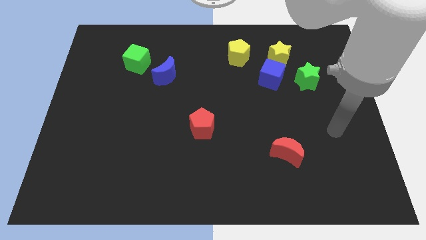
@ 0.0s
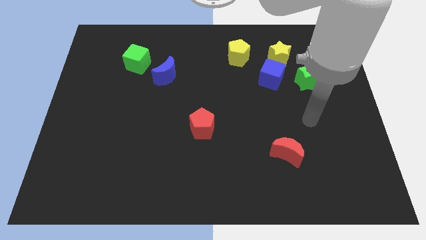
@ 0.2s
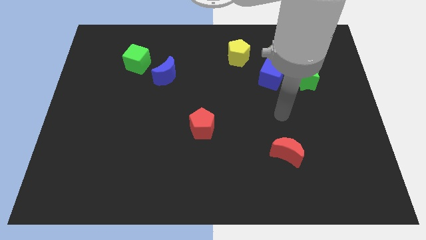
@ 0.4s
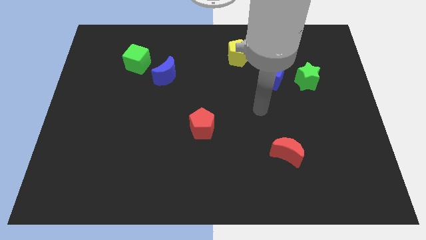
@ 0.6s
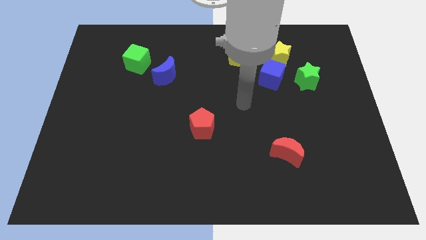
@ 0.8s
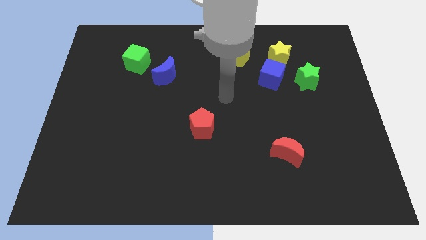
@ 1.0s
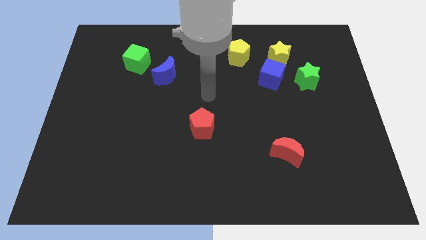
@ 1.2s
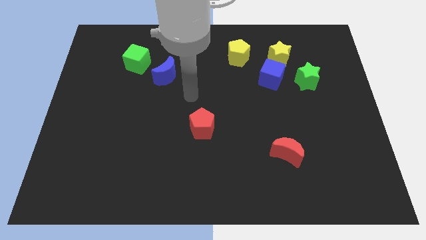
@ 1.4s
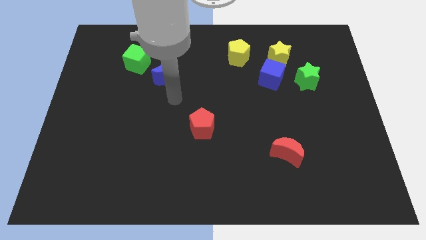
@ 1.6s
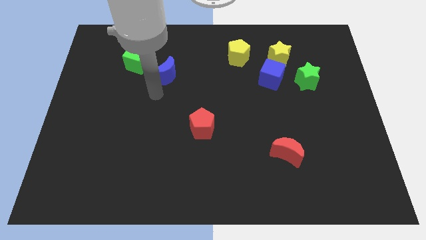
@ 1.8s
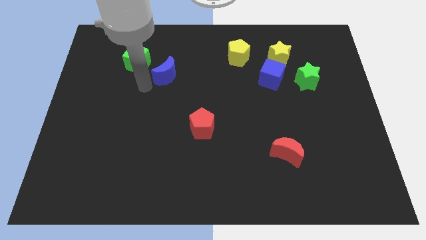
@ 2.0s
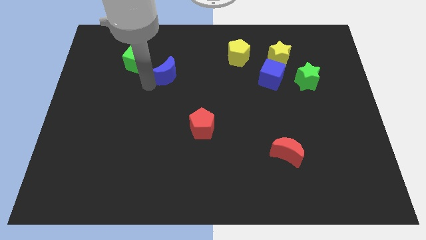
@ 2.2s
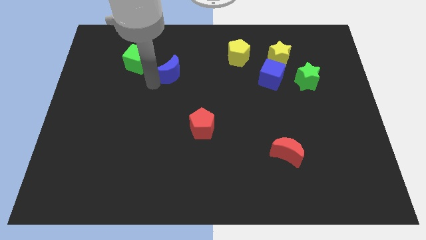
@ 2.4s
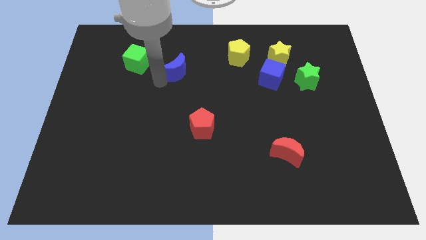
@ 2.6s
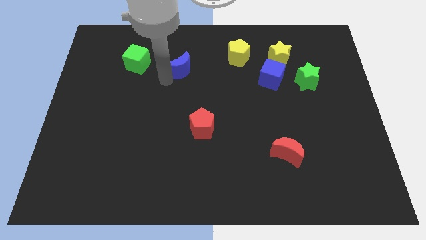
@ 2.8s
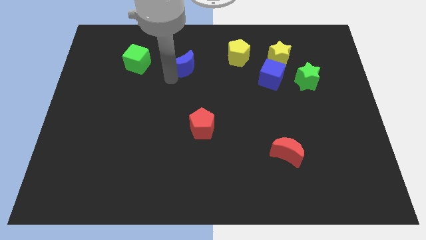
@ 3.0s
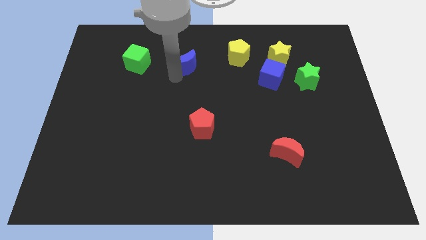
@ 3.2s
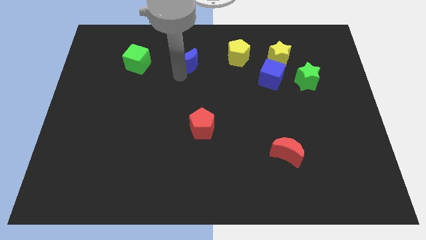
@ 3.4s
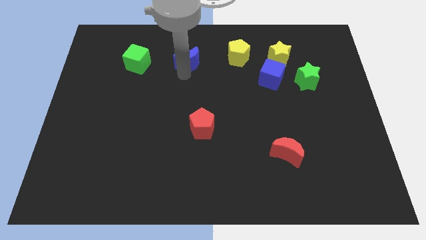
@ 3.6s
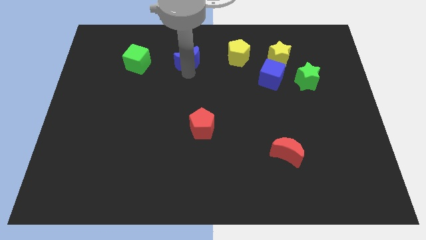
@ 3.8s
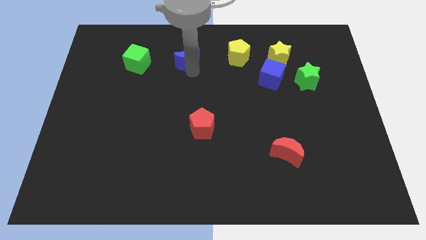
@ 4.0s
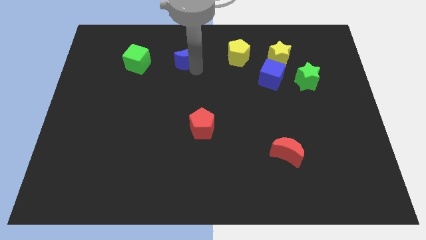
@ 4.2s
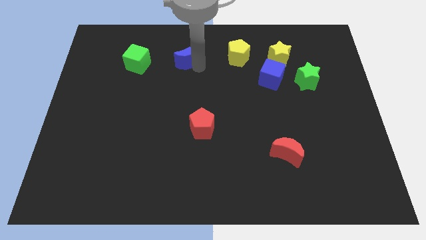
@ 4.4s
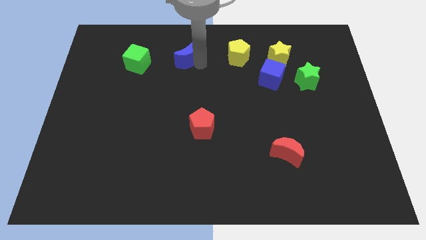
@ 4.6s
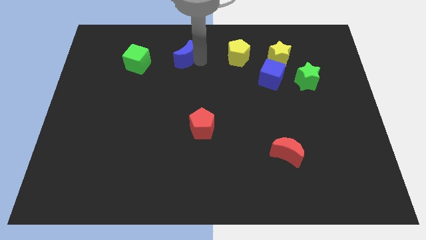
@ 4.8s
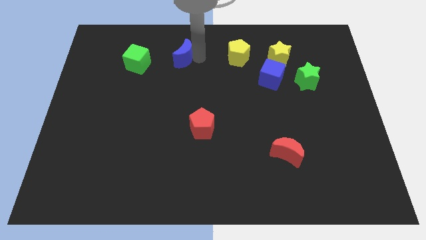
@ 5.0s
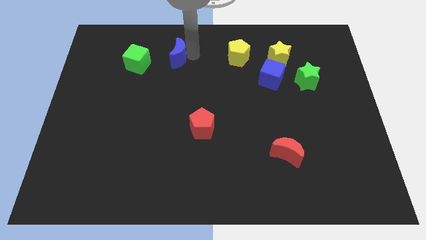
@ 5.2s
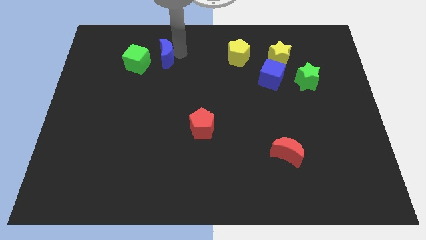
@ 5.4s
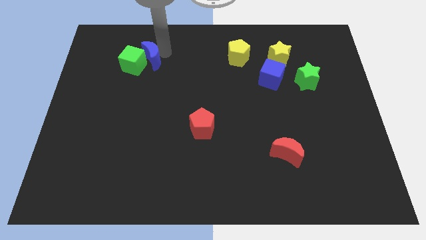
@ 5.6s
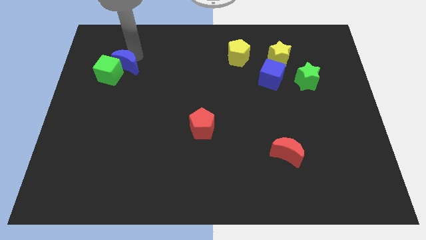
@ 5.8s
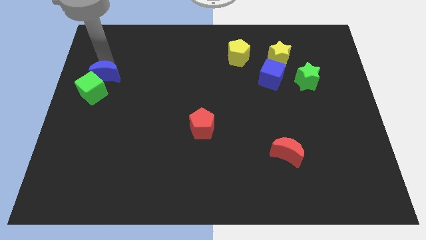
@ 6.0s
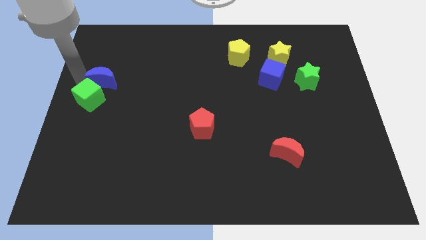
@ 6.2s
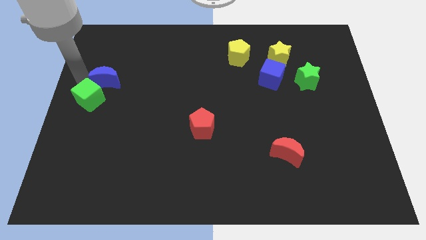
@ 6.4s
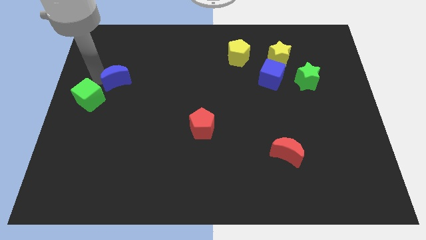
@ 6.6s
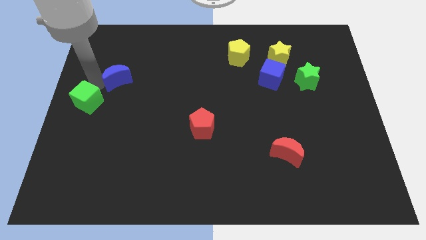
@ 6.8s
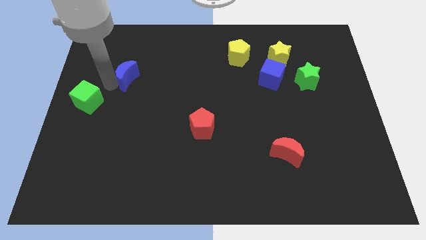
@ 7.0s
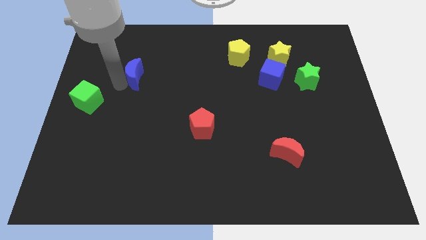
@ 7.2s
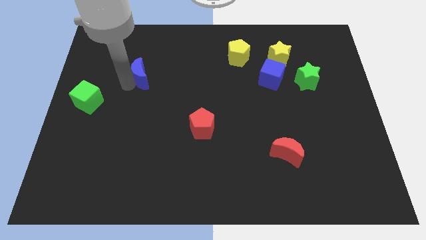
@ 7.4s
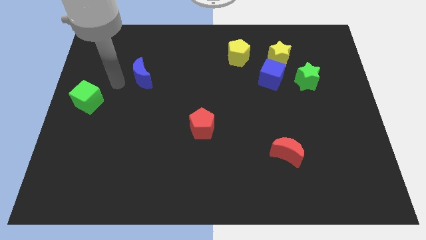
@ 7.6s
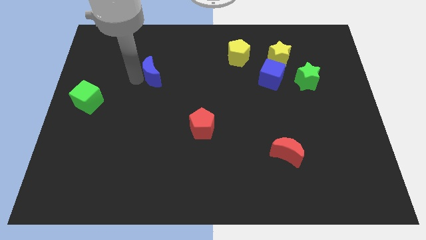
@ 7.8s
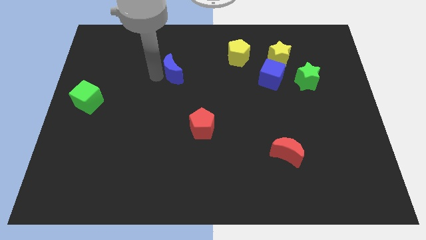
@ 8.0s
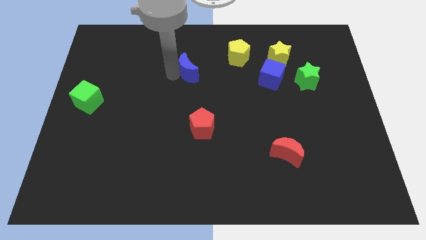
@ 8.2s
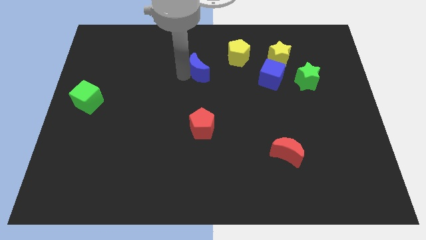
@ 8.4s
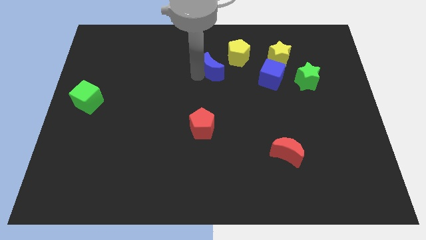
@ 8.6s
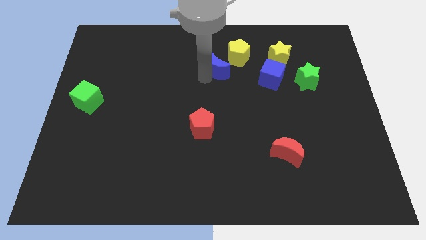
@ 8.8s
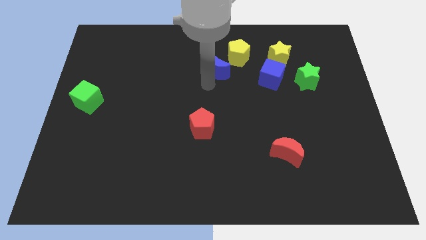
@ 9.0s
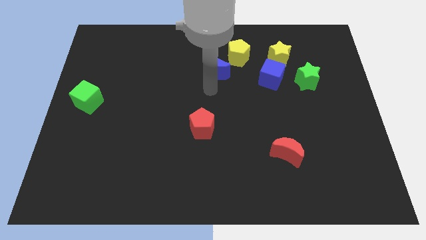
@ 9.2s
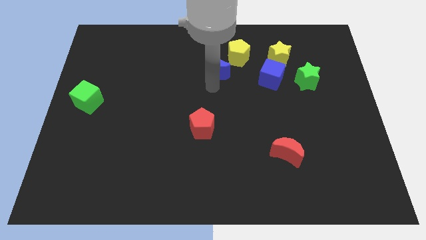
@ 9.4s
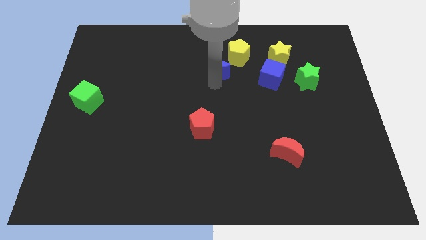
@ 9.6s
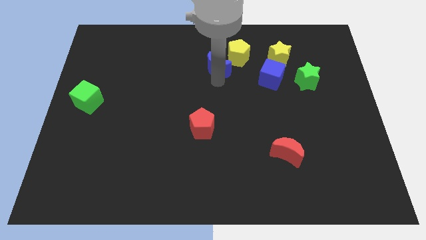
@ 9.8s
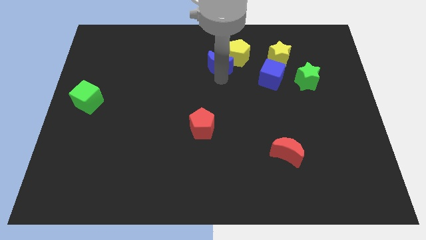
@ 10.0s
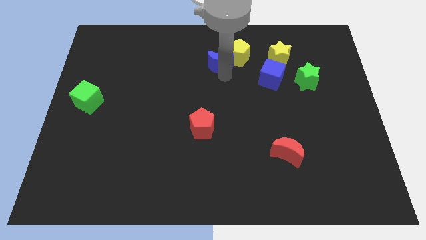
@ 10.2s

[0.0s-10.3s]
put the blue moon left of the yellow star

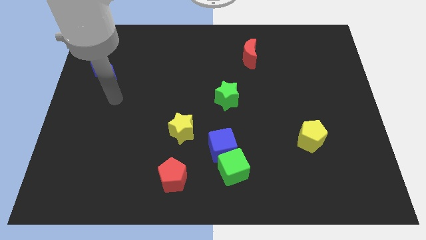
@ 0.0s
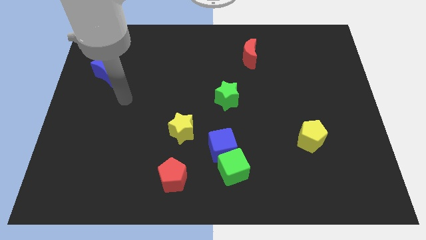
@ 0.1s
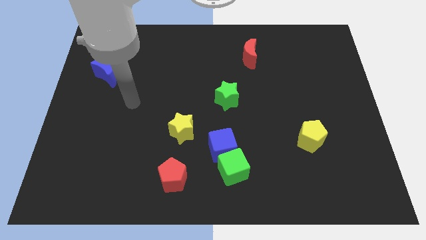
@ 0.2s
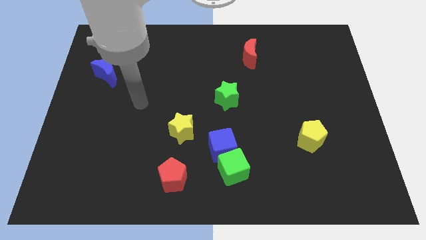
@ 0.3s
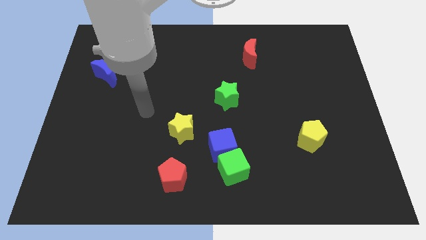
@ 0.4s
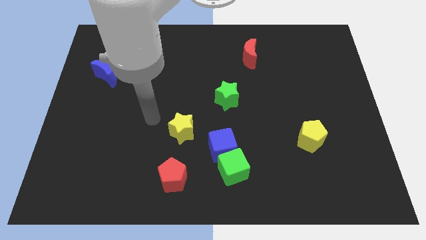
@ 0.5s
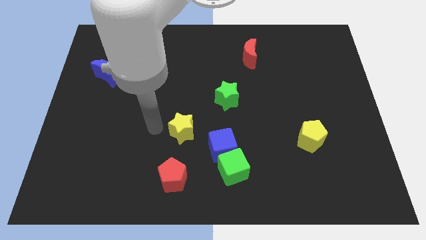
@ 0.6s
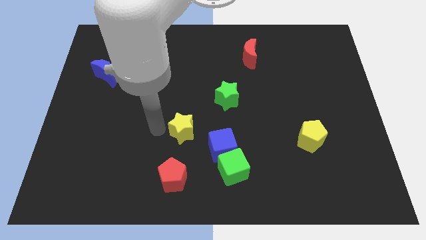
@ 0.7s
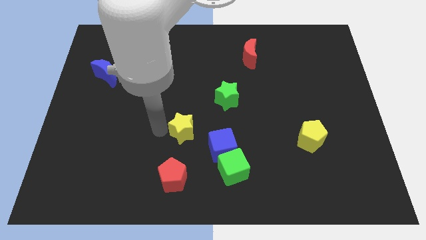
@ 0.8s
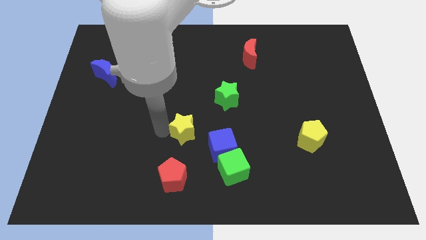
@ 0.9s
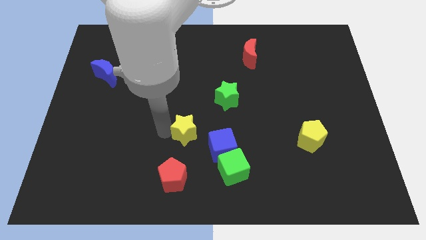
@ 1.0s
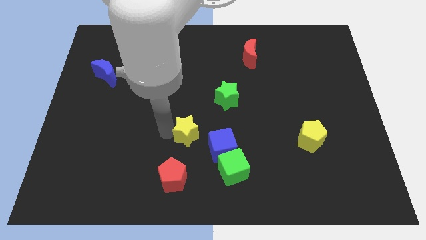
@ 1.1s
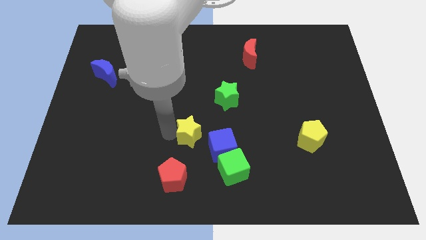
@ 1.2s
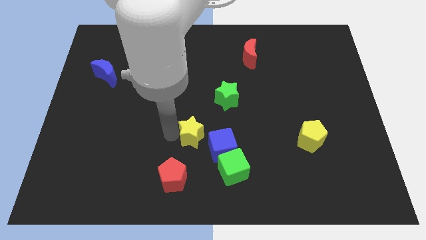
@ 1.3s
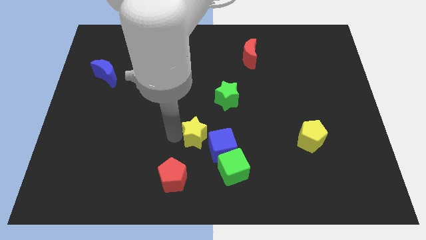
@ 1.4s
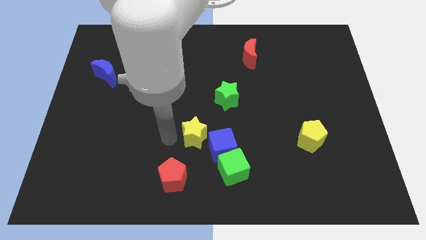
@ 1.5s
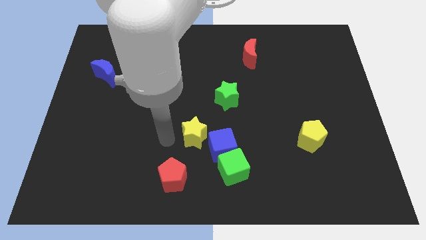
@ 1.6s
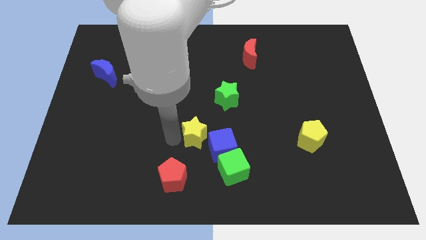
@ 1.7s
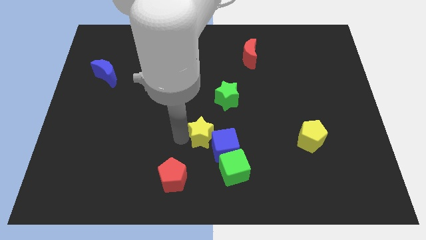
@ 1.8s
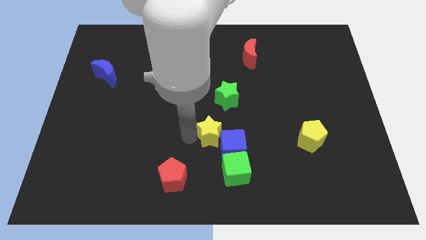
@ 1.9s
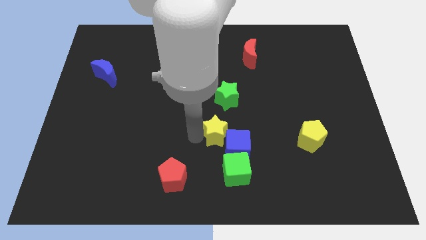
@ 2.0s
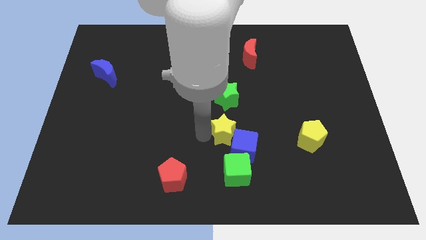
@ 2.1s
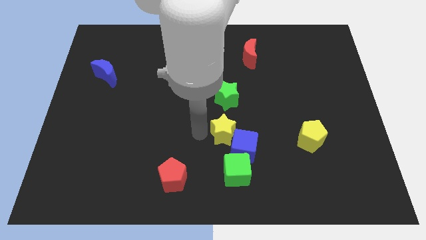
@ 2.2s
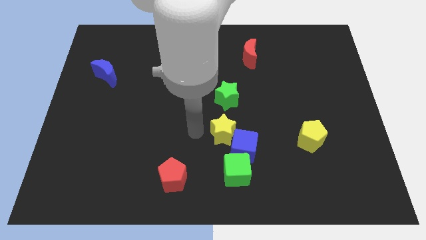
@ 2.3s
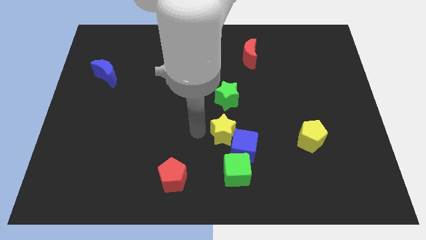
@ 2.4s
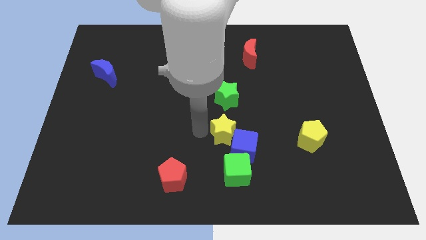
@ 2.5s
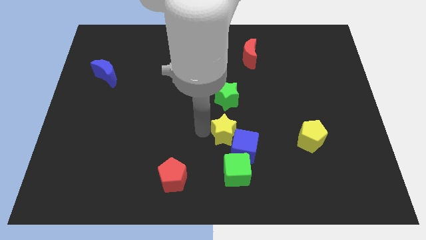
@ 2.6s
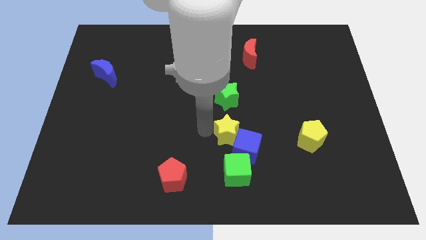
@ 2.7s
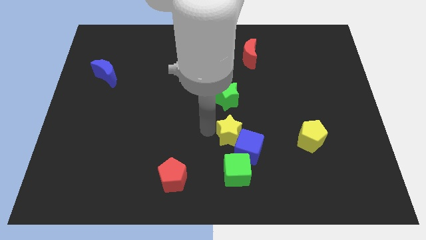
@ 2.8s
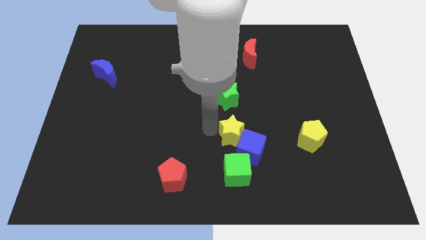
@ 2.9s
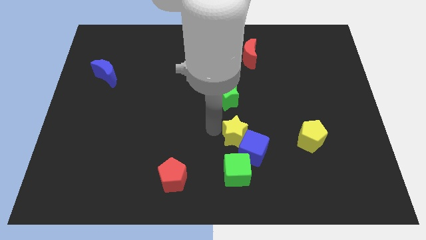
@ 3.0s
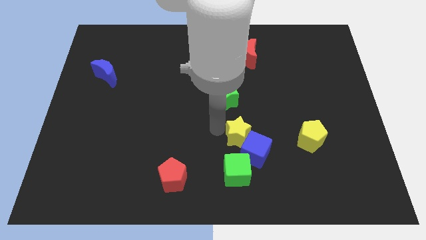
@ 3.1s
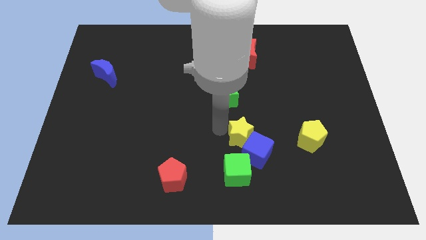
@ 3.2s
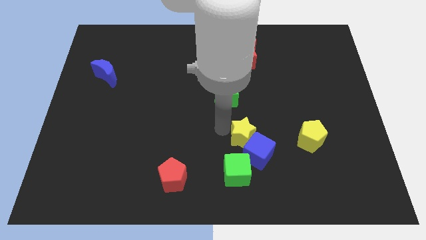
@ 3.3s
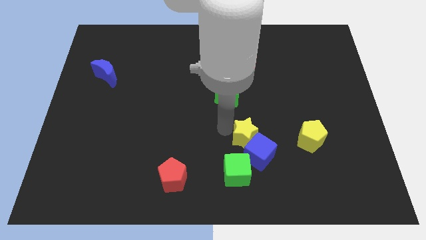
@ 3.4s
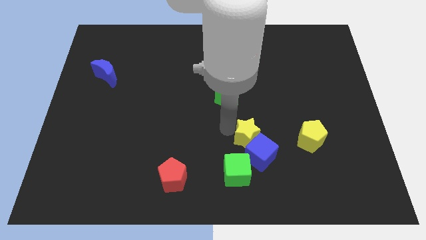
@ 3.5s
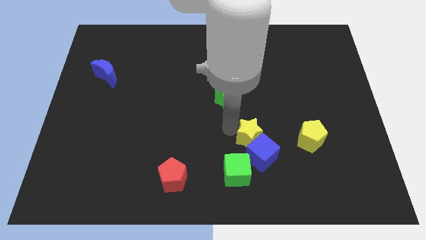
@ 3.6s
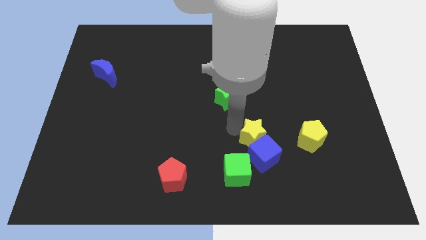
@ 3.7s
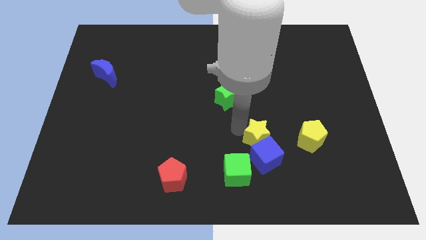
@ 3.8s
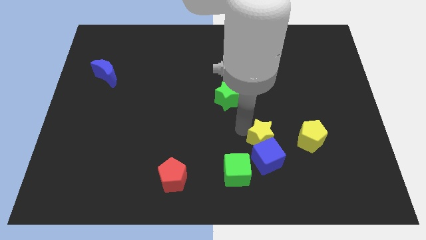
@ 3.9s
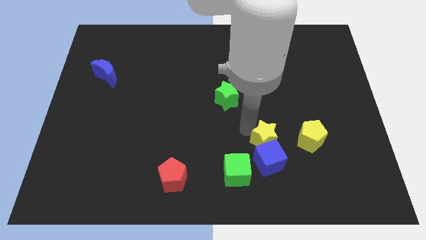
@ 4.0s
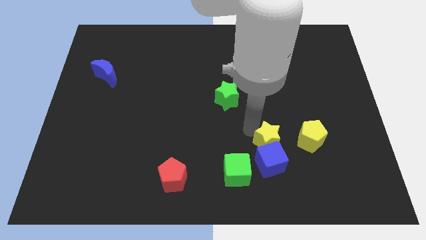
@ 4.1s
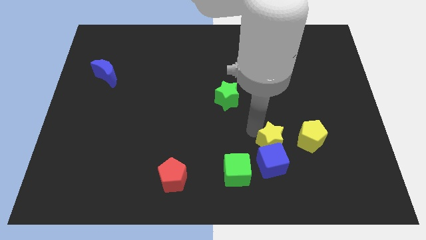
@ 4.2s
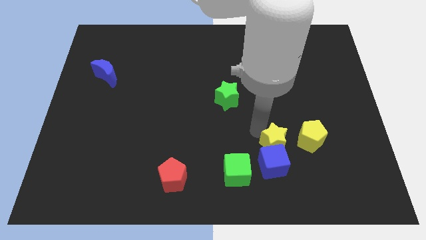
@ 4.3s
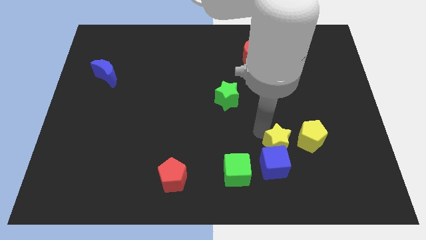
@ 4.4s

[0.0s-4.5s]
push the yellow star diagonally down and to the left of the yellow pentagon
